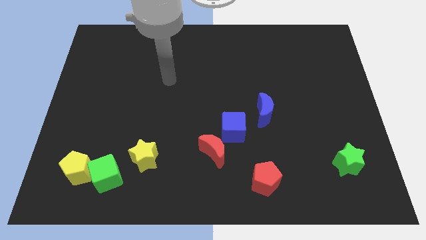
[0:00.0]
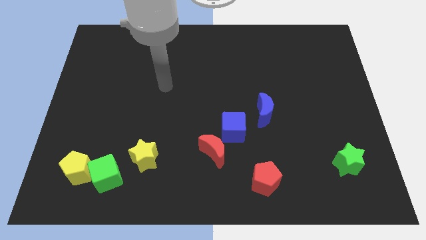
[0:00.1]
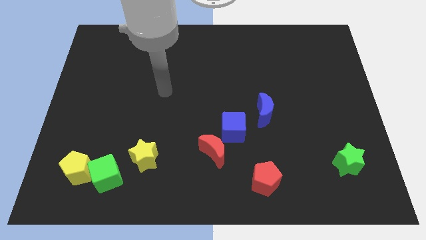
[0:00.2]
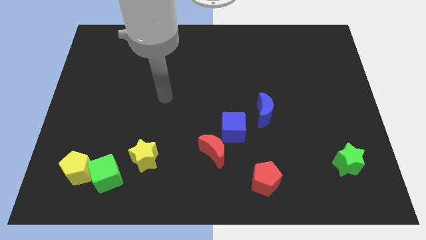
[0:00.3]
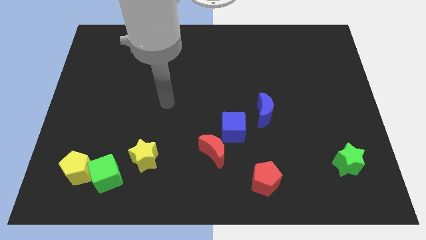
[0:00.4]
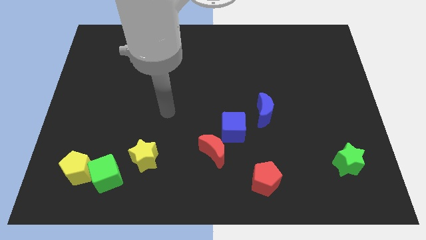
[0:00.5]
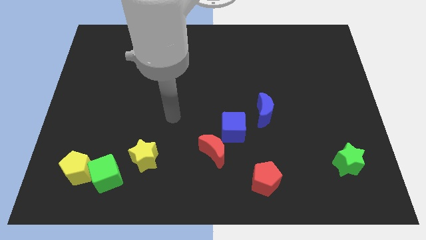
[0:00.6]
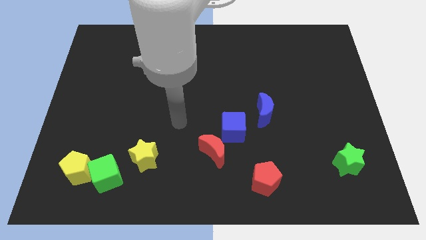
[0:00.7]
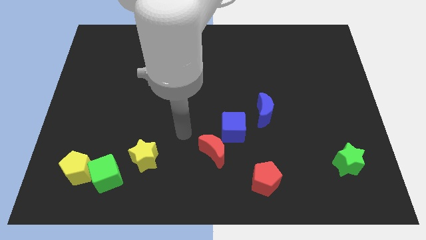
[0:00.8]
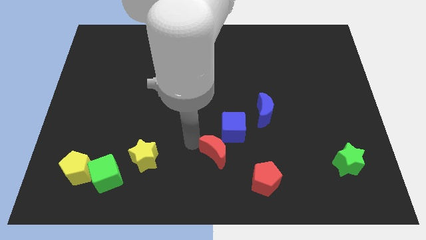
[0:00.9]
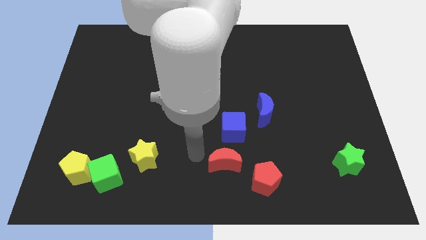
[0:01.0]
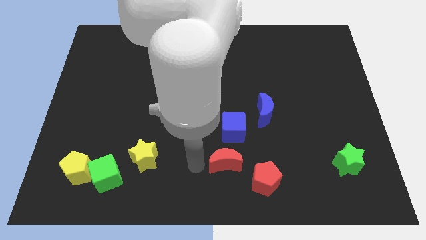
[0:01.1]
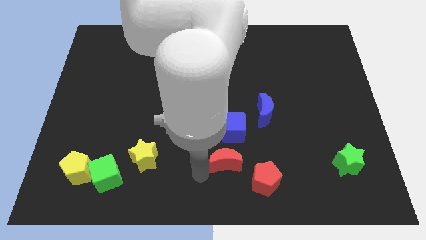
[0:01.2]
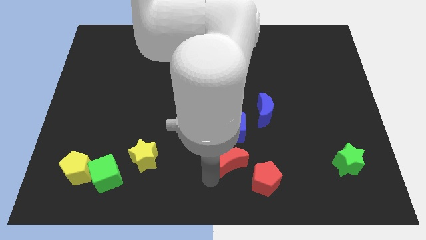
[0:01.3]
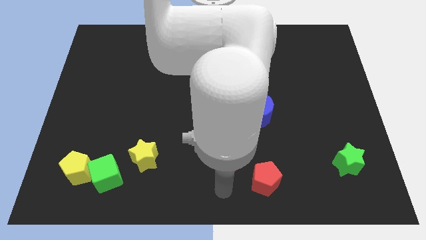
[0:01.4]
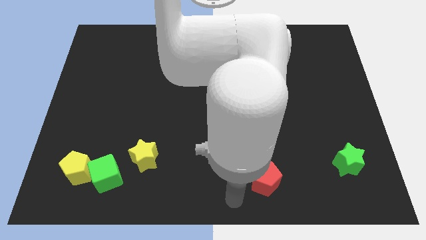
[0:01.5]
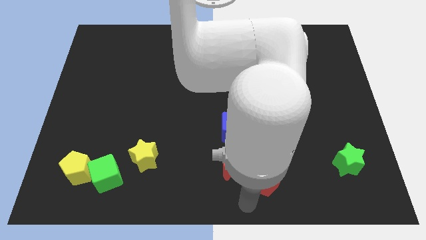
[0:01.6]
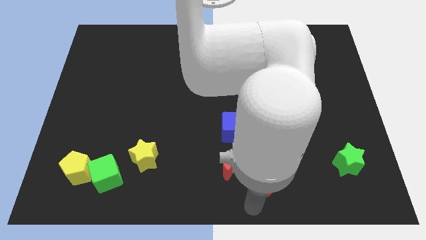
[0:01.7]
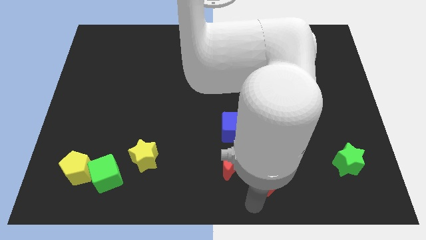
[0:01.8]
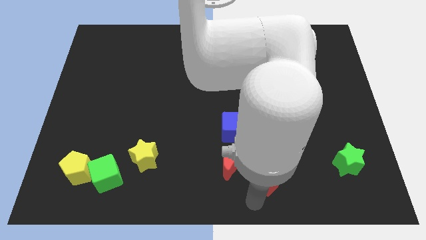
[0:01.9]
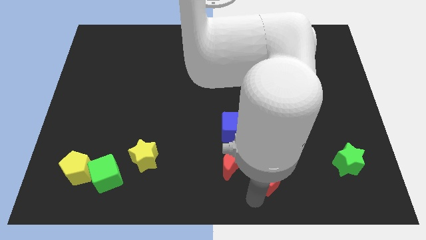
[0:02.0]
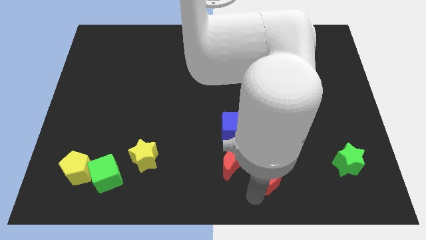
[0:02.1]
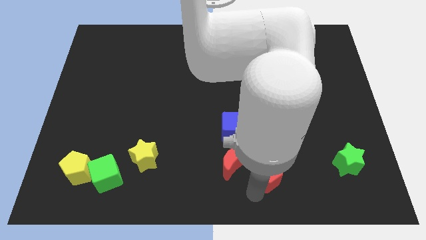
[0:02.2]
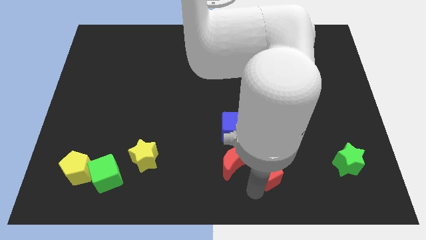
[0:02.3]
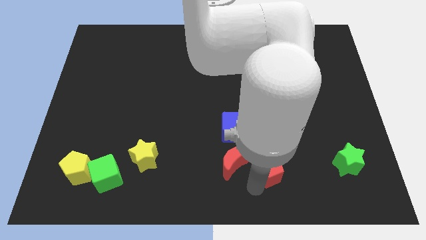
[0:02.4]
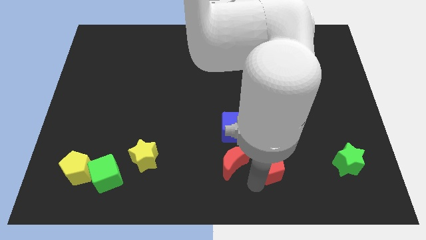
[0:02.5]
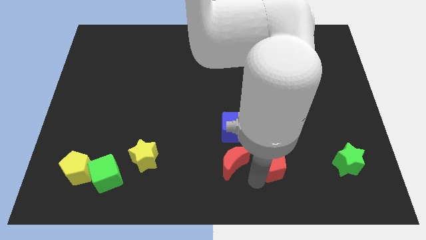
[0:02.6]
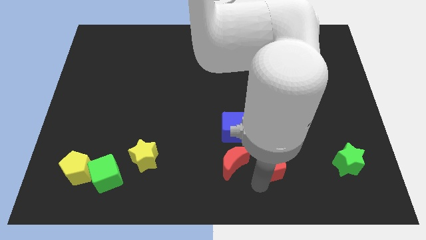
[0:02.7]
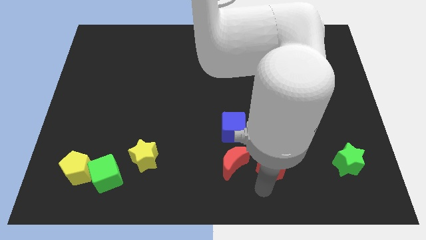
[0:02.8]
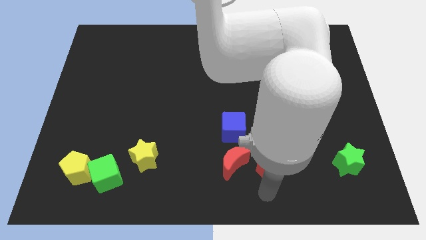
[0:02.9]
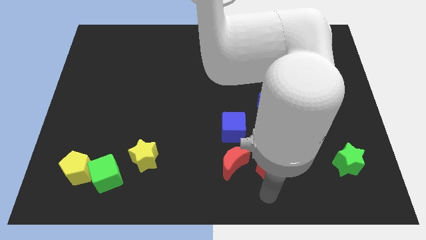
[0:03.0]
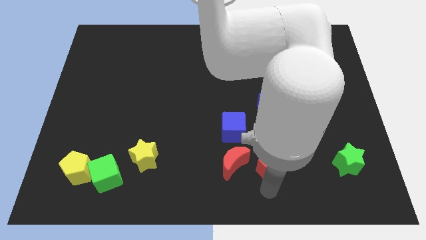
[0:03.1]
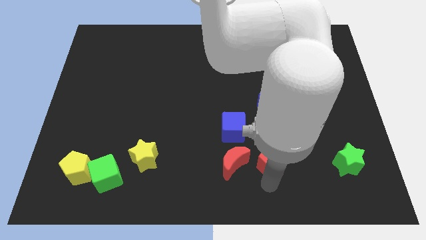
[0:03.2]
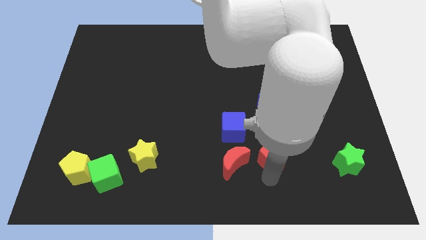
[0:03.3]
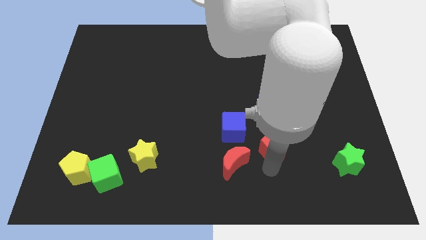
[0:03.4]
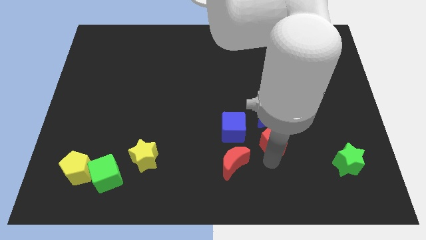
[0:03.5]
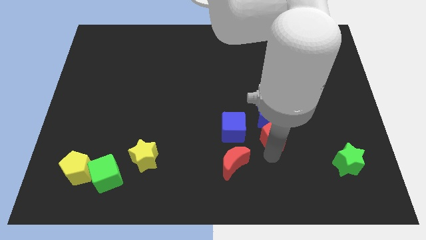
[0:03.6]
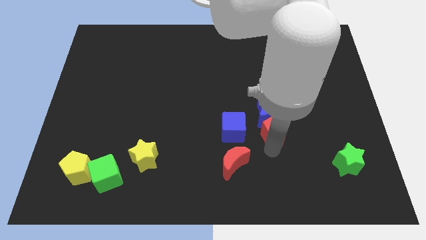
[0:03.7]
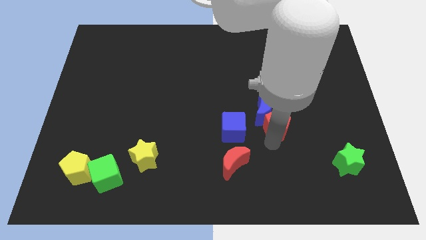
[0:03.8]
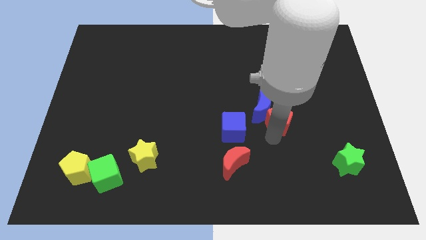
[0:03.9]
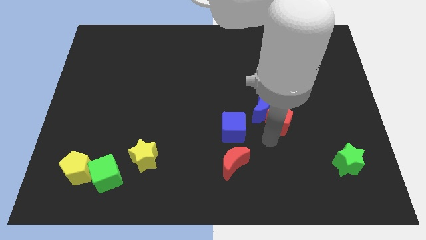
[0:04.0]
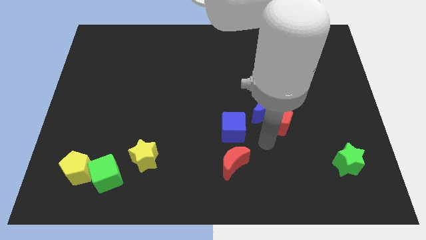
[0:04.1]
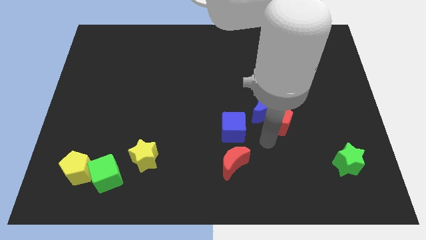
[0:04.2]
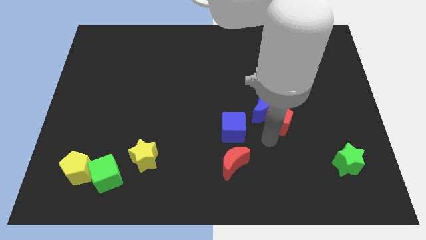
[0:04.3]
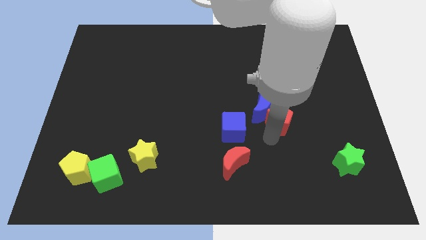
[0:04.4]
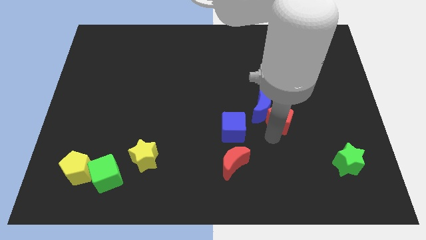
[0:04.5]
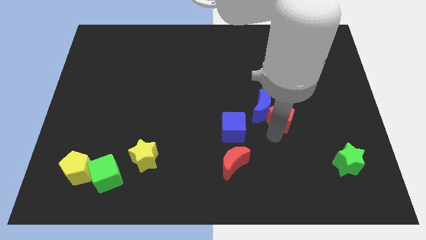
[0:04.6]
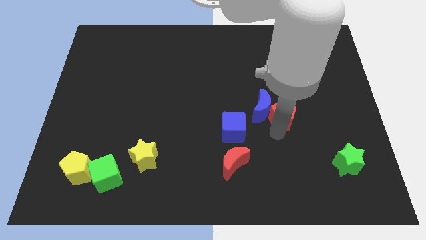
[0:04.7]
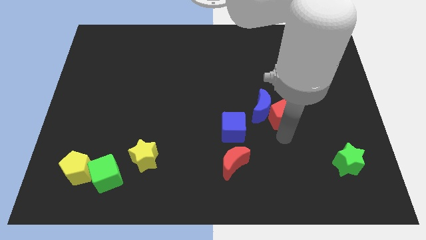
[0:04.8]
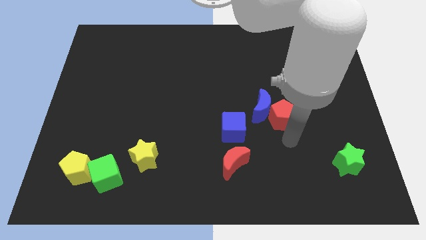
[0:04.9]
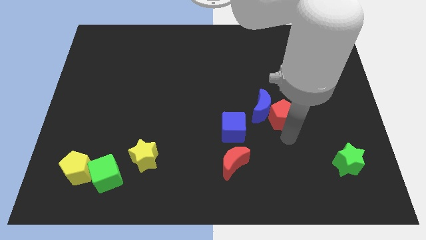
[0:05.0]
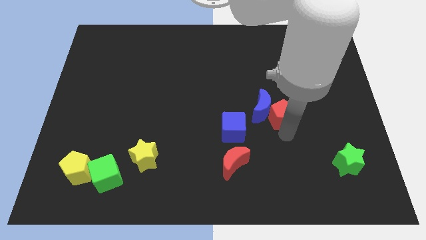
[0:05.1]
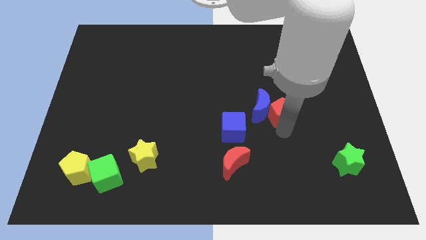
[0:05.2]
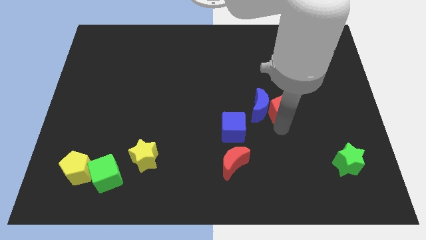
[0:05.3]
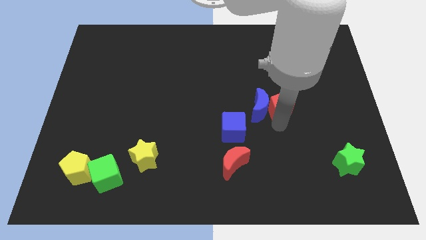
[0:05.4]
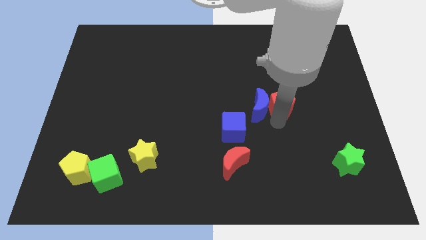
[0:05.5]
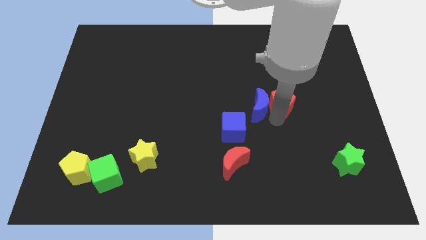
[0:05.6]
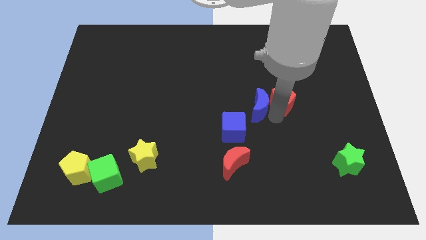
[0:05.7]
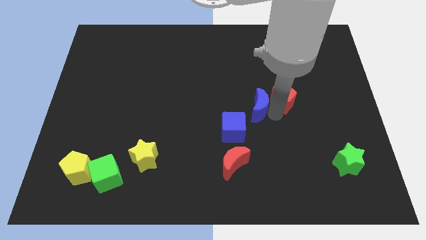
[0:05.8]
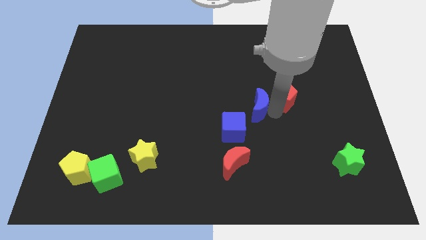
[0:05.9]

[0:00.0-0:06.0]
push the red pentagon upwards

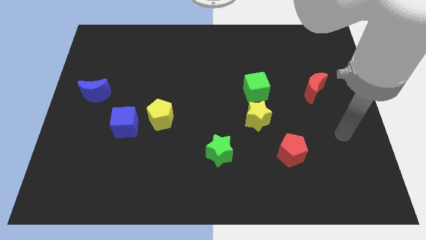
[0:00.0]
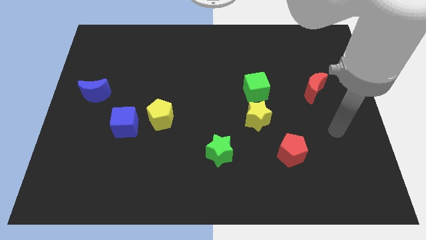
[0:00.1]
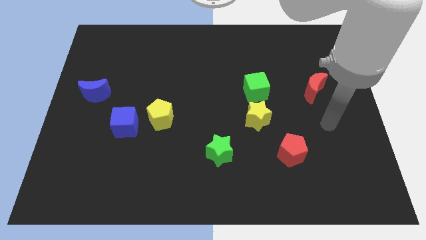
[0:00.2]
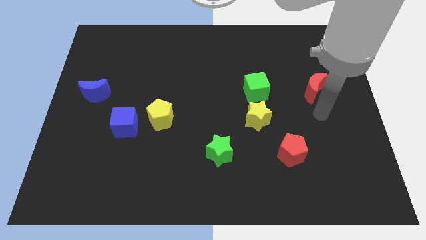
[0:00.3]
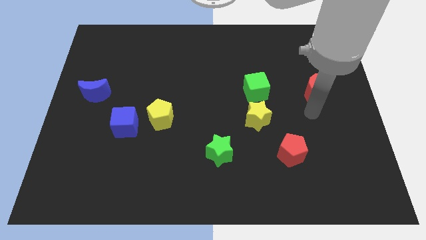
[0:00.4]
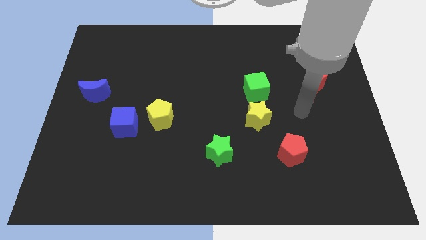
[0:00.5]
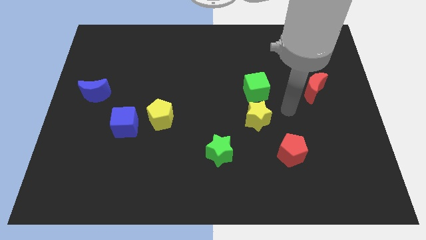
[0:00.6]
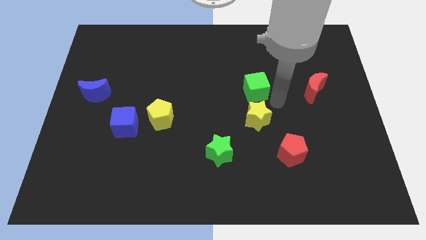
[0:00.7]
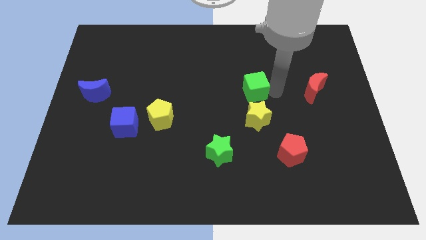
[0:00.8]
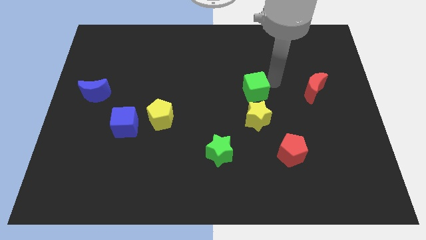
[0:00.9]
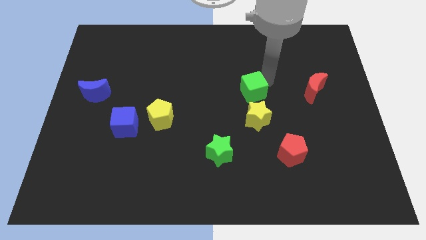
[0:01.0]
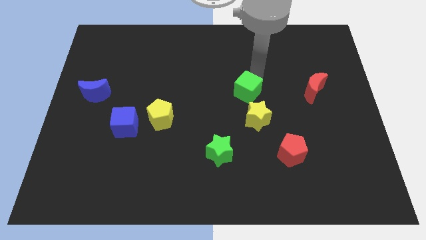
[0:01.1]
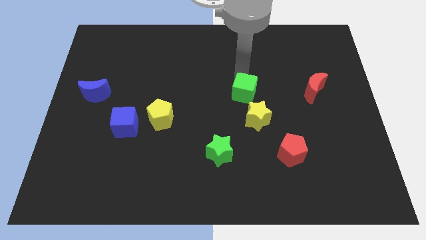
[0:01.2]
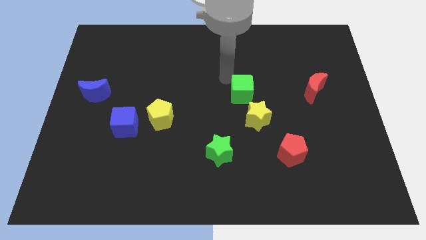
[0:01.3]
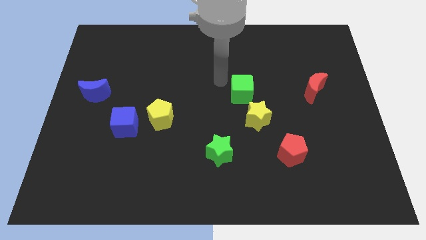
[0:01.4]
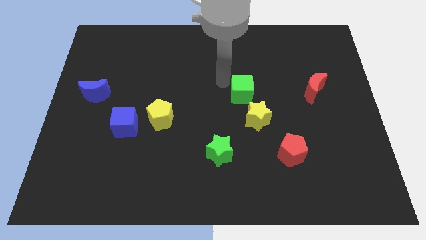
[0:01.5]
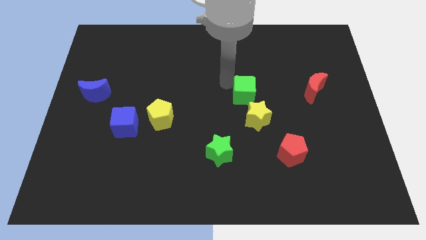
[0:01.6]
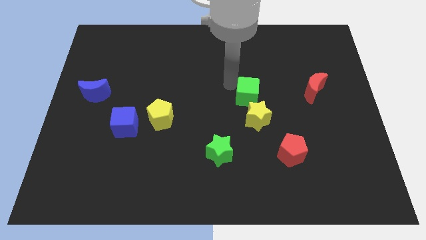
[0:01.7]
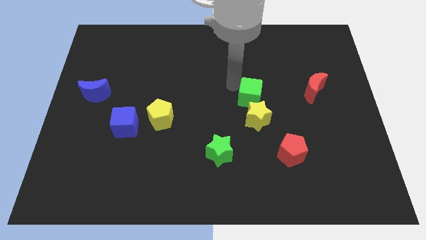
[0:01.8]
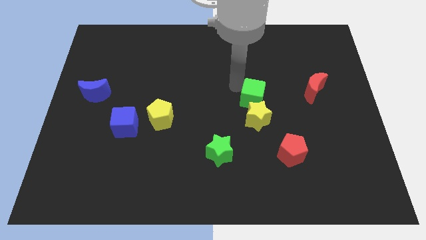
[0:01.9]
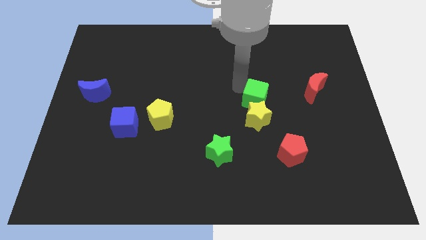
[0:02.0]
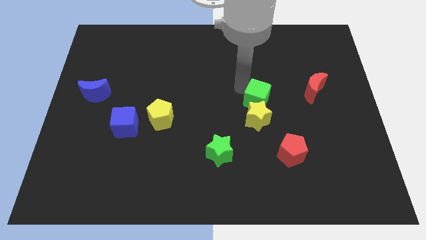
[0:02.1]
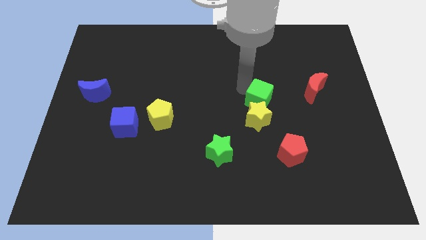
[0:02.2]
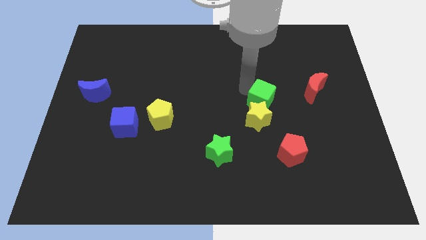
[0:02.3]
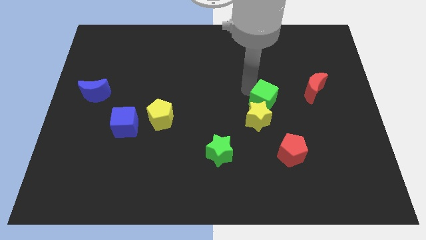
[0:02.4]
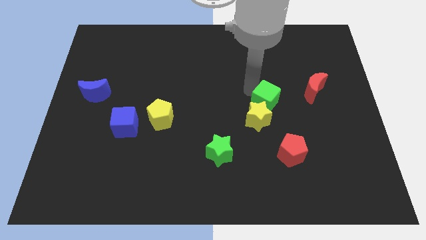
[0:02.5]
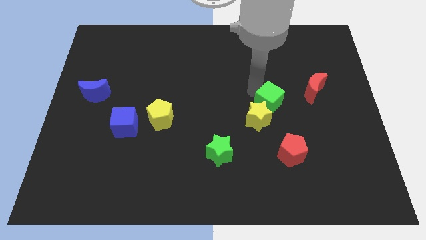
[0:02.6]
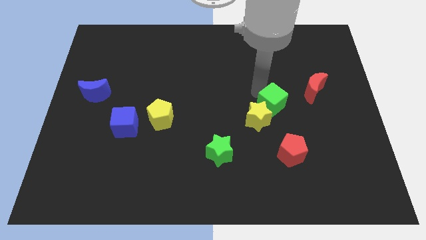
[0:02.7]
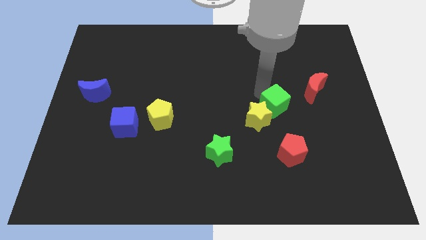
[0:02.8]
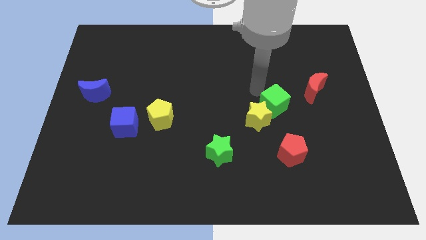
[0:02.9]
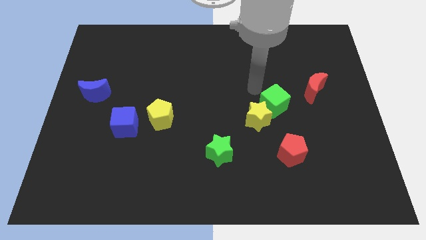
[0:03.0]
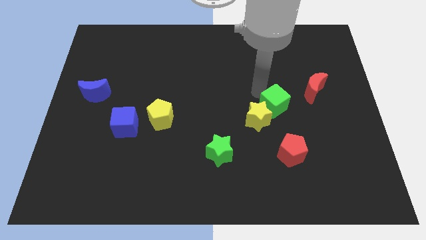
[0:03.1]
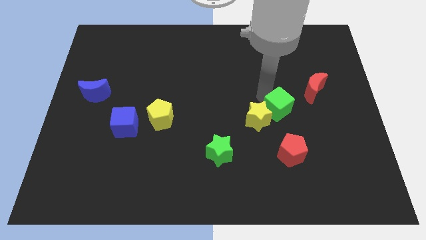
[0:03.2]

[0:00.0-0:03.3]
slightly slide the green cube down and to the right
